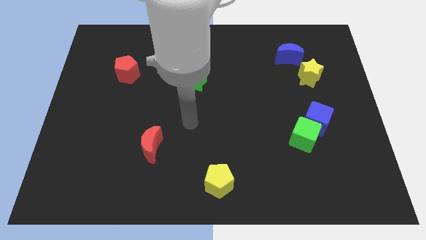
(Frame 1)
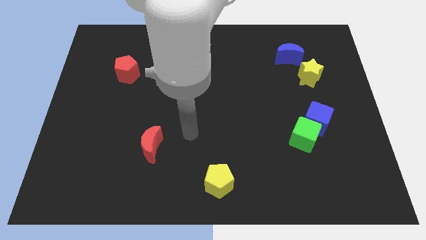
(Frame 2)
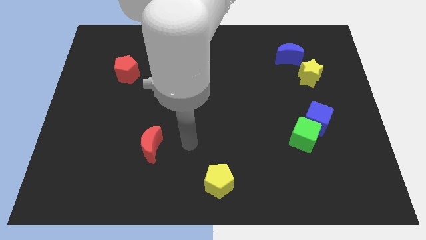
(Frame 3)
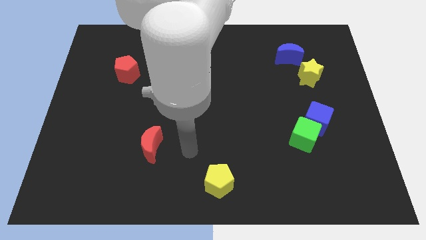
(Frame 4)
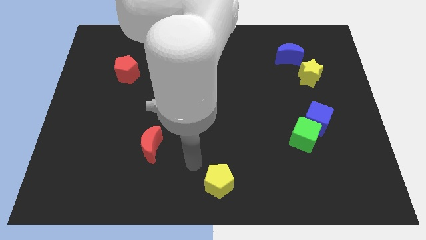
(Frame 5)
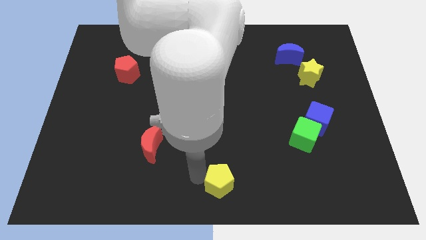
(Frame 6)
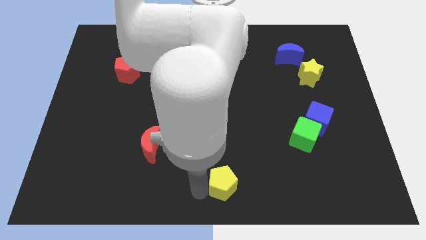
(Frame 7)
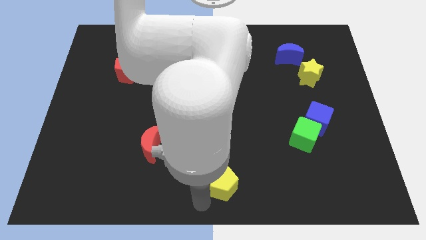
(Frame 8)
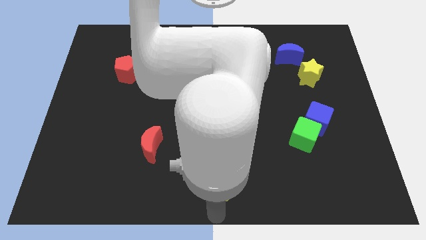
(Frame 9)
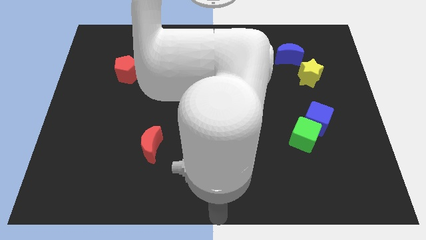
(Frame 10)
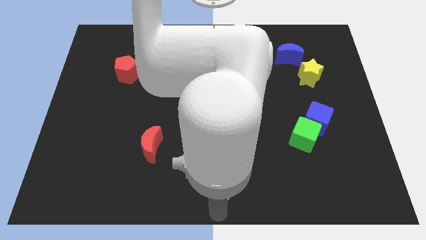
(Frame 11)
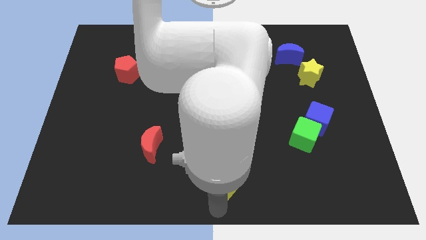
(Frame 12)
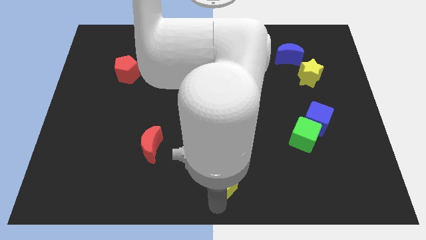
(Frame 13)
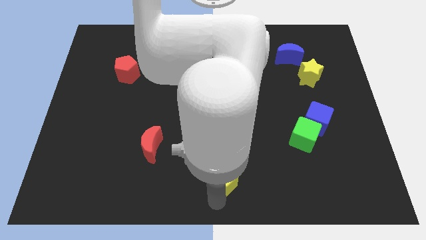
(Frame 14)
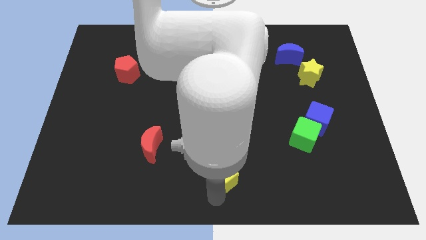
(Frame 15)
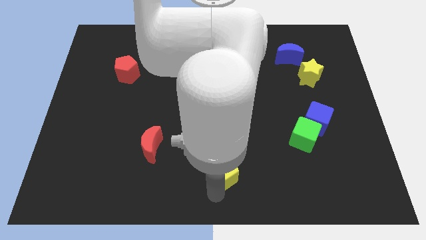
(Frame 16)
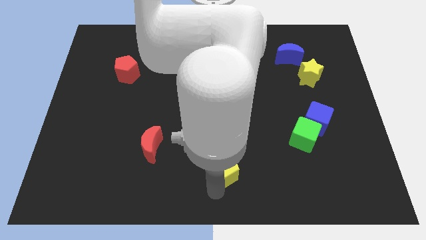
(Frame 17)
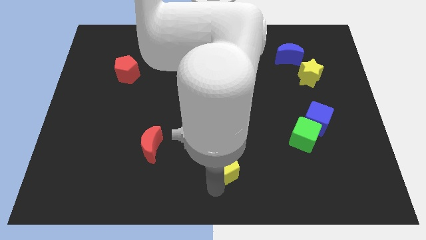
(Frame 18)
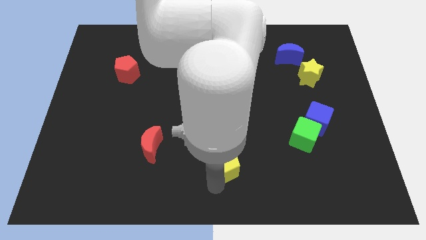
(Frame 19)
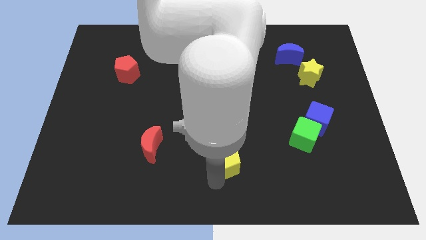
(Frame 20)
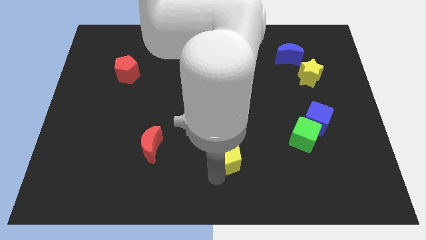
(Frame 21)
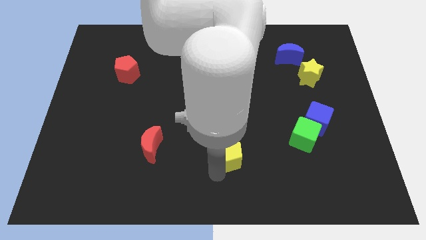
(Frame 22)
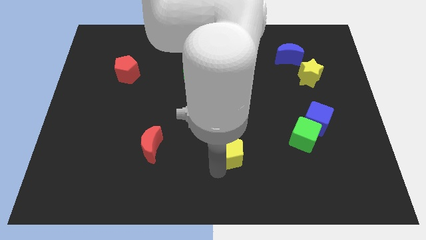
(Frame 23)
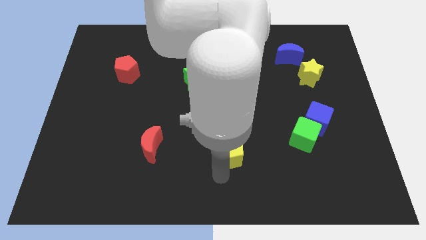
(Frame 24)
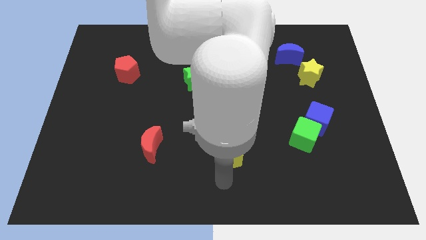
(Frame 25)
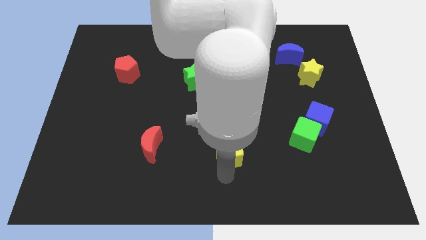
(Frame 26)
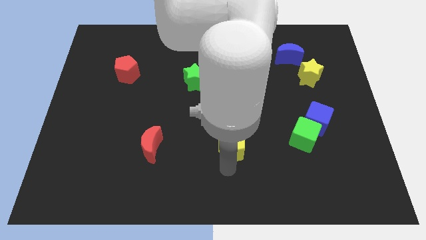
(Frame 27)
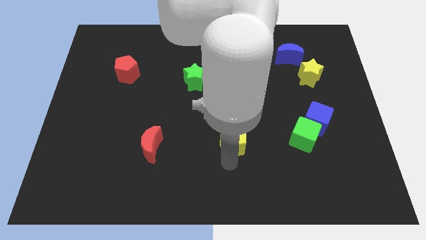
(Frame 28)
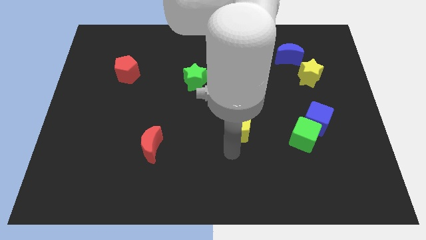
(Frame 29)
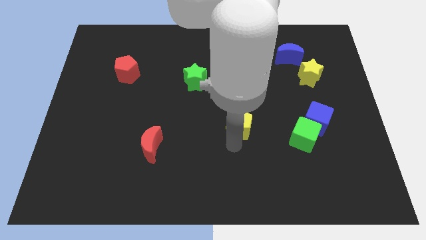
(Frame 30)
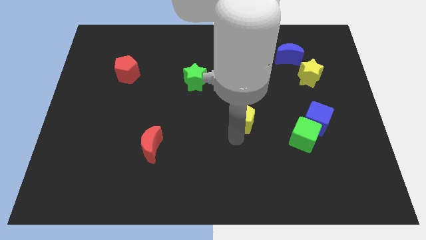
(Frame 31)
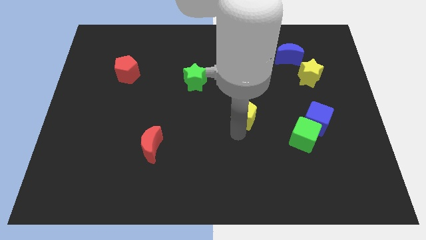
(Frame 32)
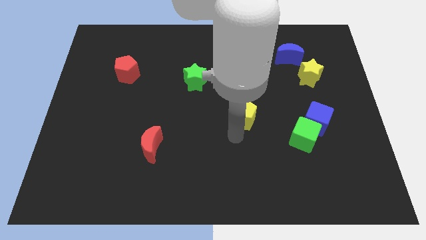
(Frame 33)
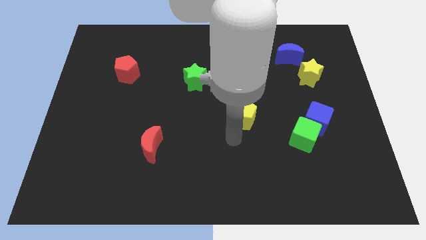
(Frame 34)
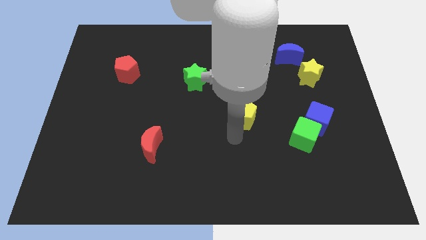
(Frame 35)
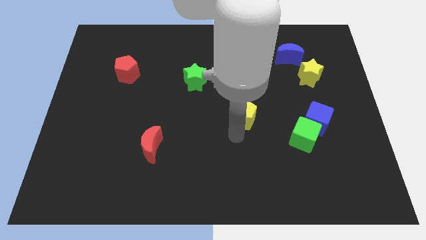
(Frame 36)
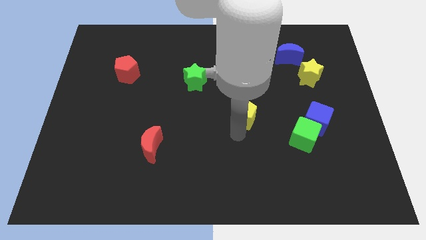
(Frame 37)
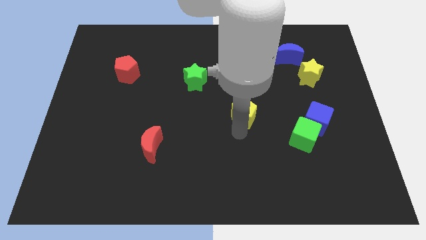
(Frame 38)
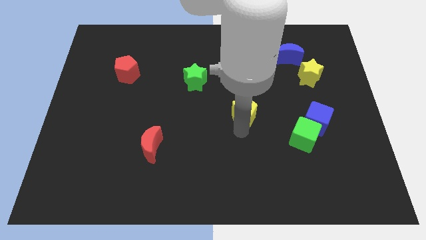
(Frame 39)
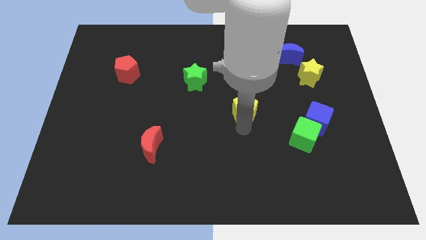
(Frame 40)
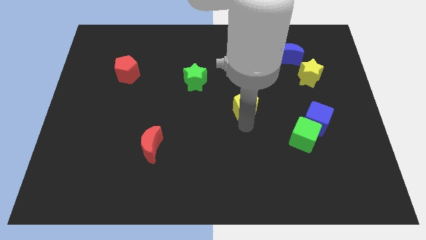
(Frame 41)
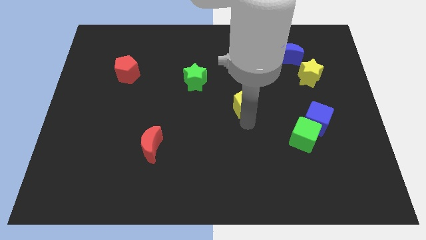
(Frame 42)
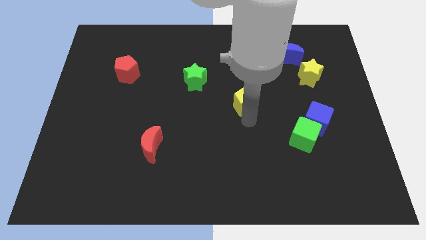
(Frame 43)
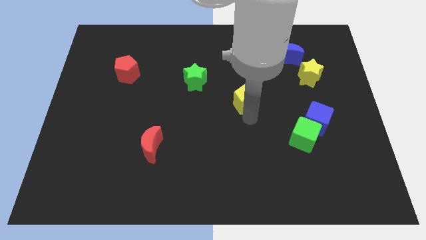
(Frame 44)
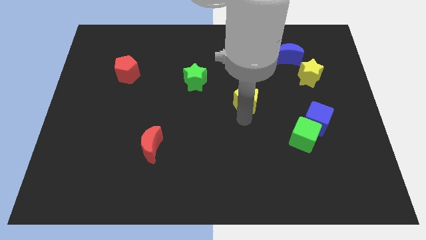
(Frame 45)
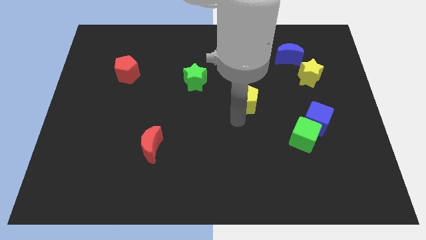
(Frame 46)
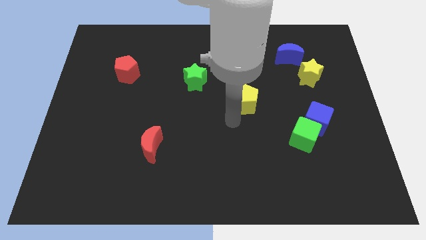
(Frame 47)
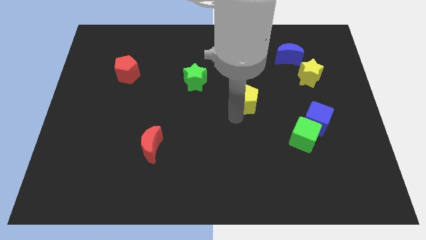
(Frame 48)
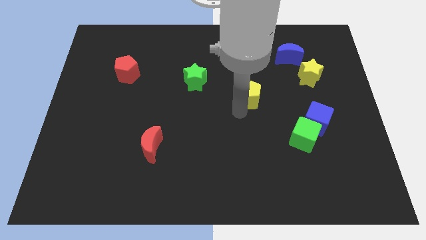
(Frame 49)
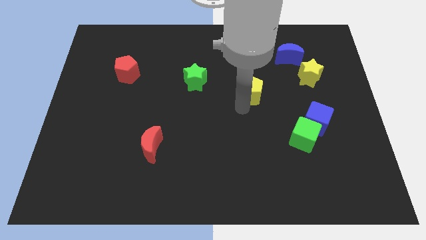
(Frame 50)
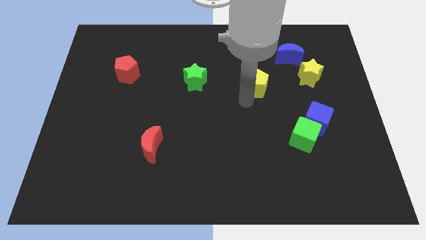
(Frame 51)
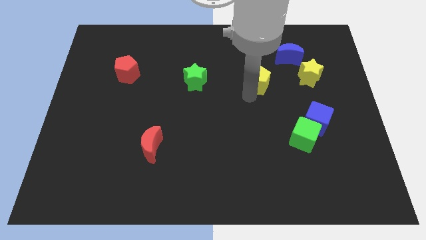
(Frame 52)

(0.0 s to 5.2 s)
put the yellow pentagon to the bottom left of the blue moon

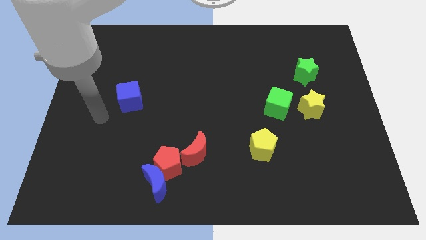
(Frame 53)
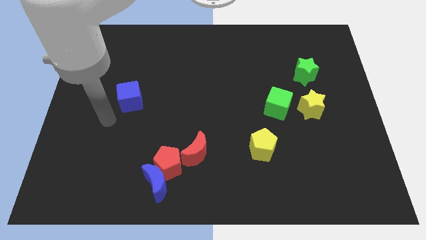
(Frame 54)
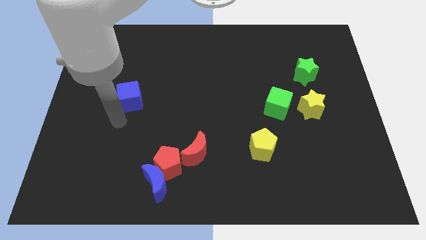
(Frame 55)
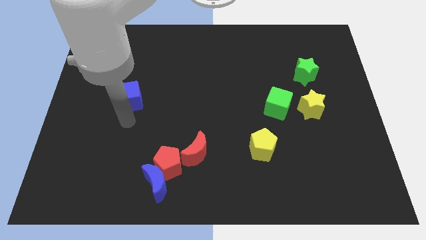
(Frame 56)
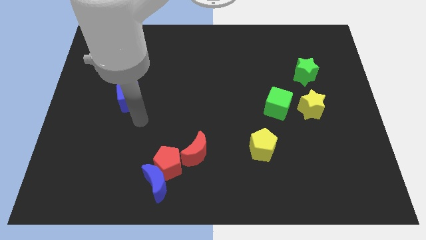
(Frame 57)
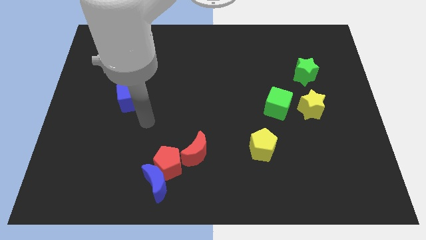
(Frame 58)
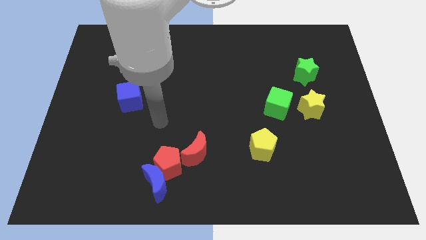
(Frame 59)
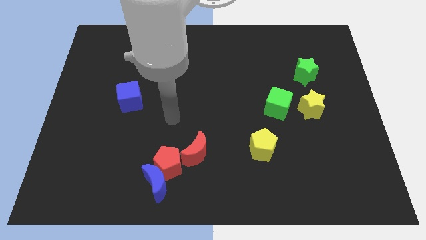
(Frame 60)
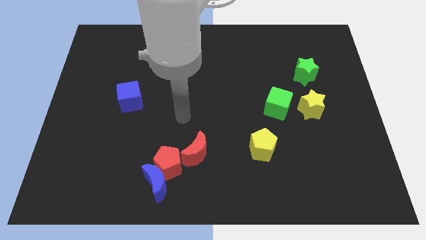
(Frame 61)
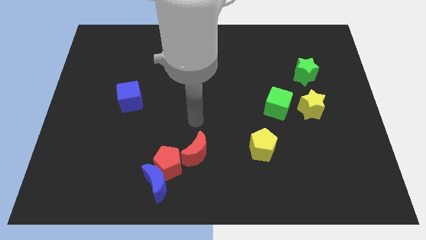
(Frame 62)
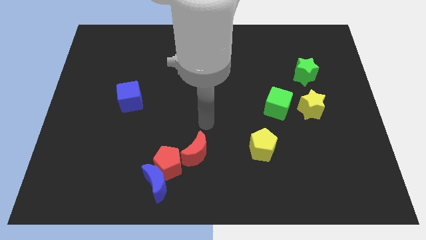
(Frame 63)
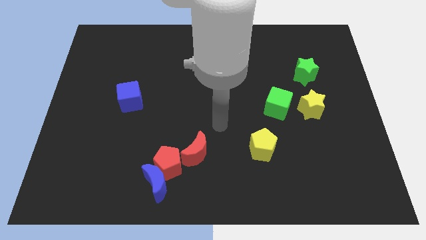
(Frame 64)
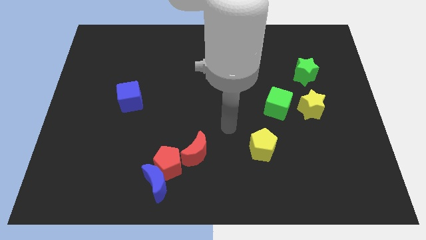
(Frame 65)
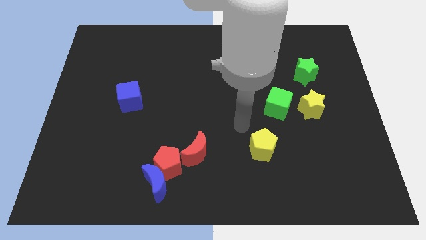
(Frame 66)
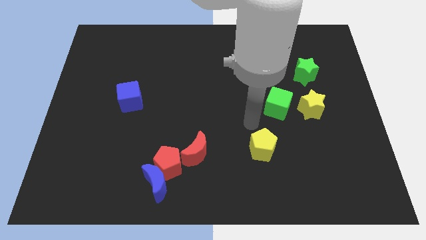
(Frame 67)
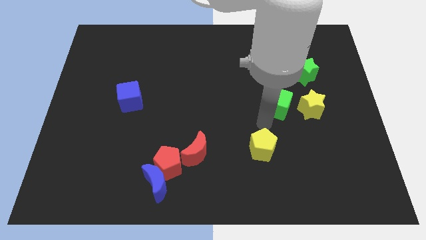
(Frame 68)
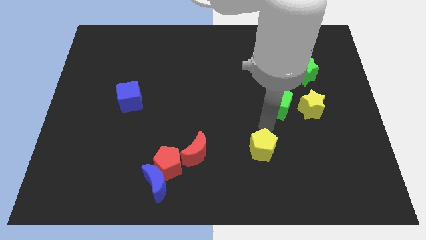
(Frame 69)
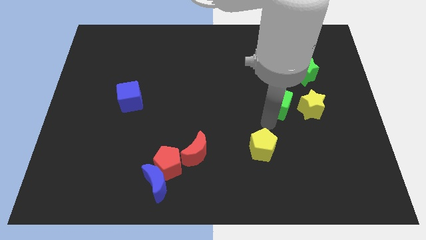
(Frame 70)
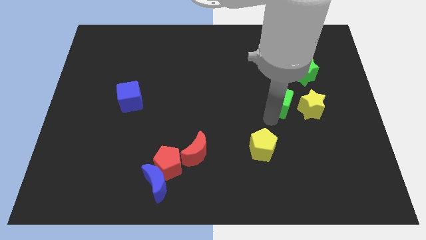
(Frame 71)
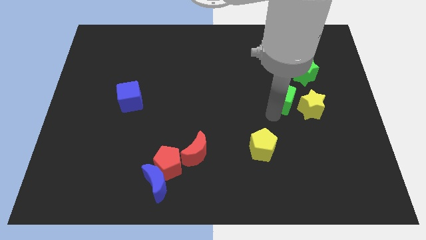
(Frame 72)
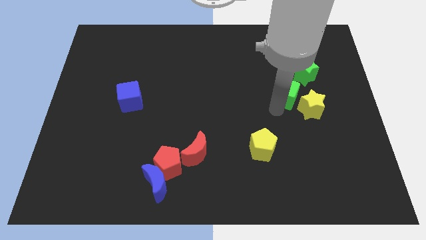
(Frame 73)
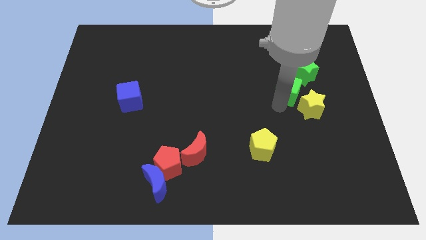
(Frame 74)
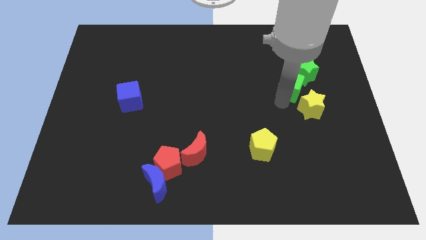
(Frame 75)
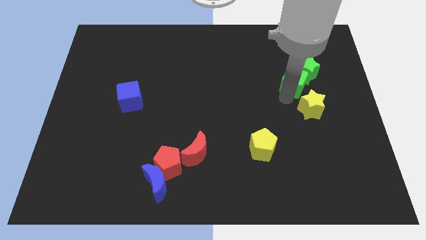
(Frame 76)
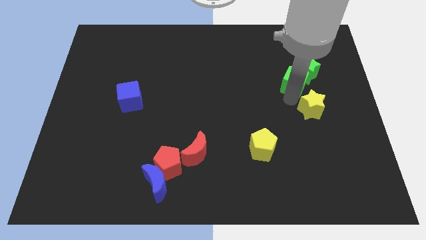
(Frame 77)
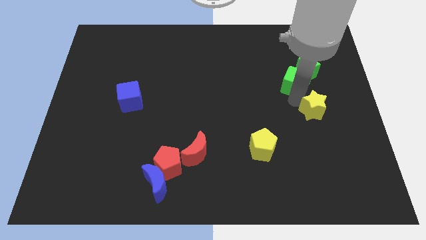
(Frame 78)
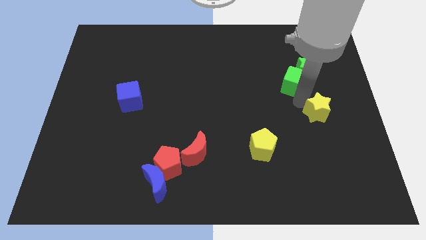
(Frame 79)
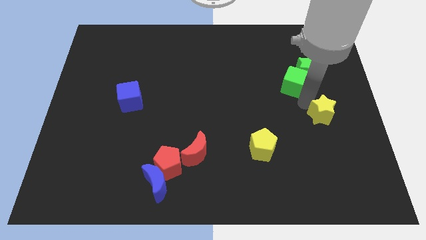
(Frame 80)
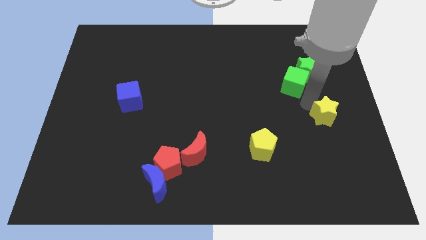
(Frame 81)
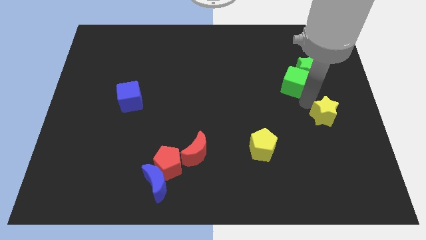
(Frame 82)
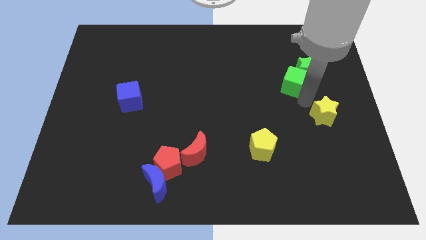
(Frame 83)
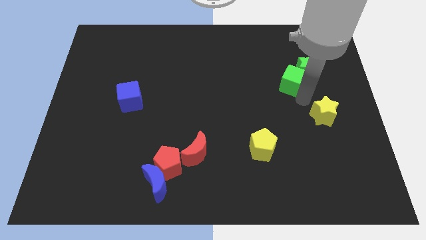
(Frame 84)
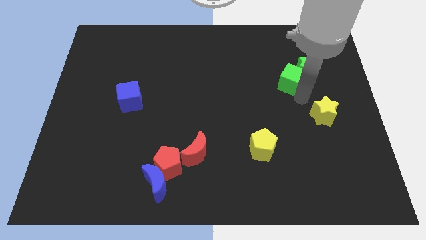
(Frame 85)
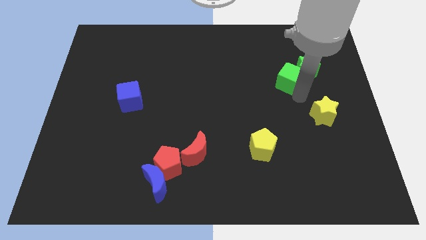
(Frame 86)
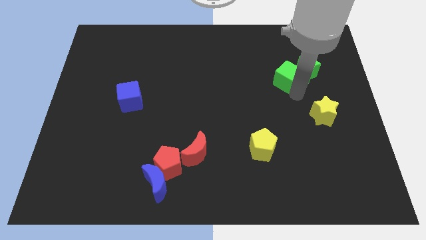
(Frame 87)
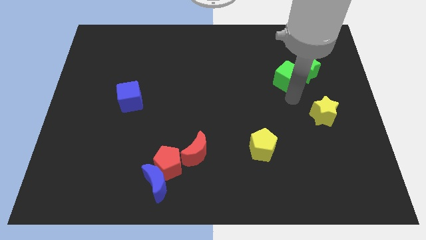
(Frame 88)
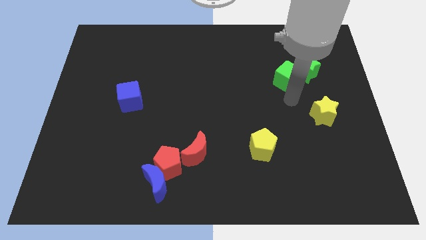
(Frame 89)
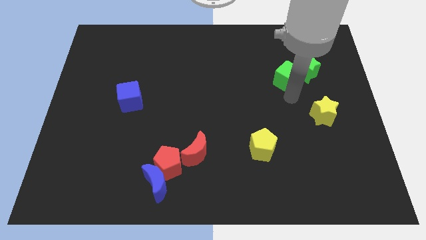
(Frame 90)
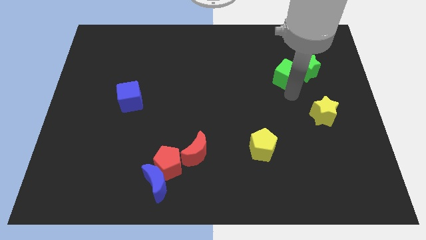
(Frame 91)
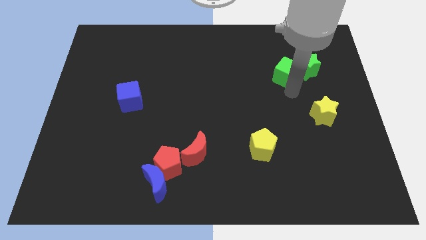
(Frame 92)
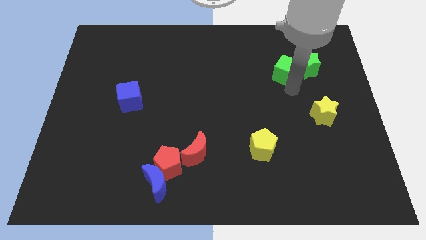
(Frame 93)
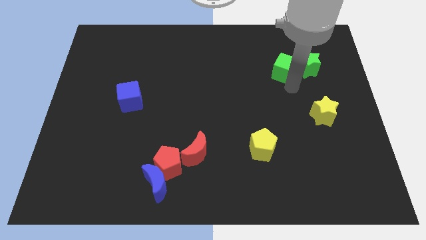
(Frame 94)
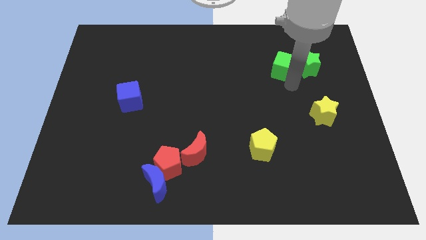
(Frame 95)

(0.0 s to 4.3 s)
move the green cube to the top left side of the green star
